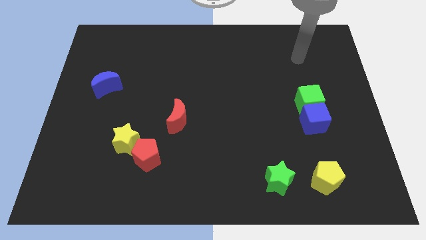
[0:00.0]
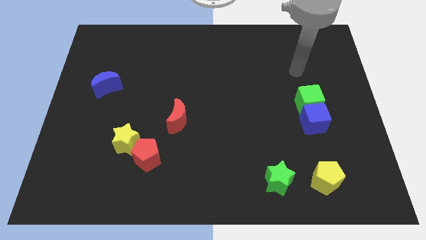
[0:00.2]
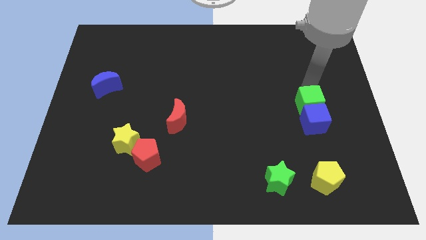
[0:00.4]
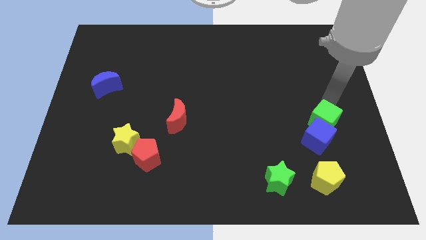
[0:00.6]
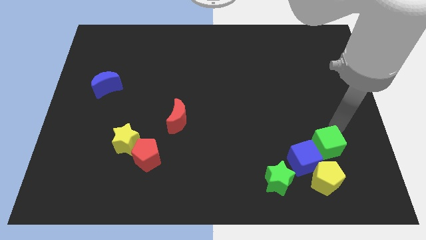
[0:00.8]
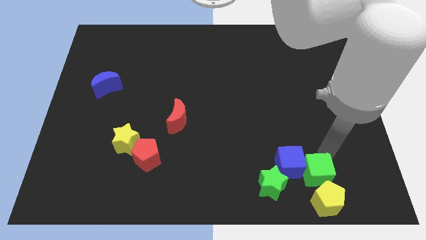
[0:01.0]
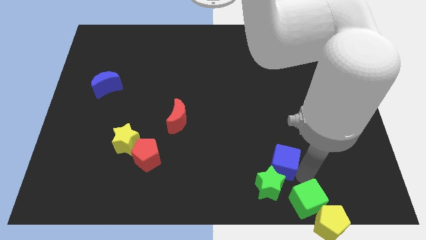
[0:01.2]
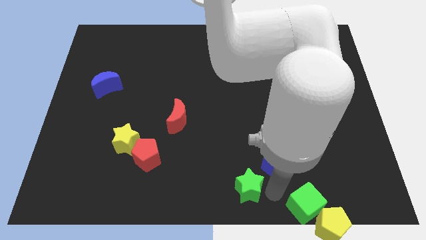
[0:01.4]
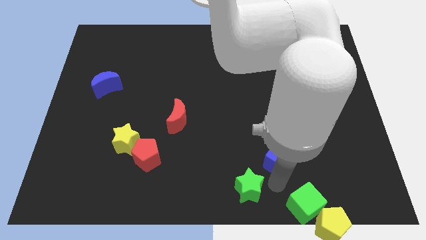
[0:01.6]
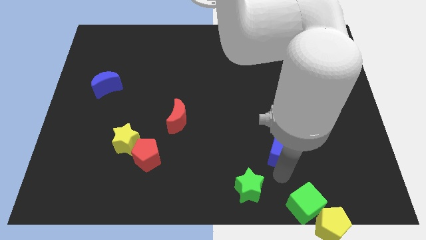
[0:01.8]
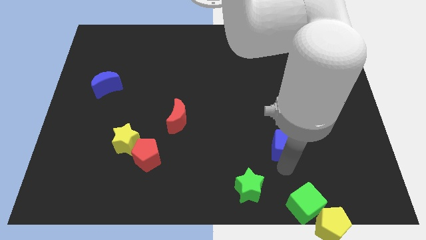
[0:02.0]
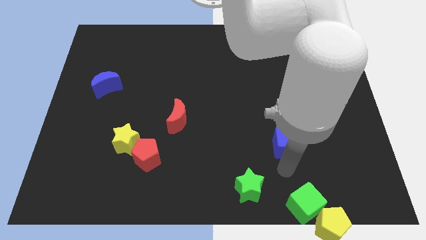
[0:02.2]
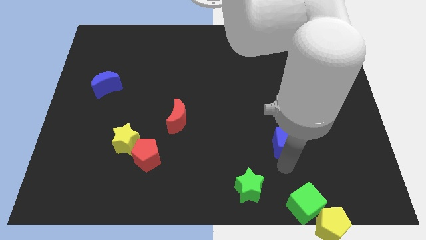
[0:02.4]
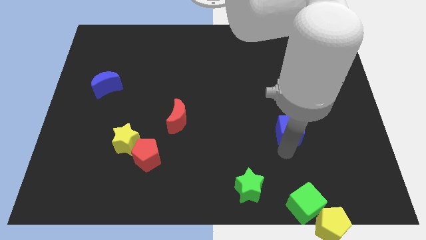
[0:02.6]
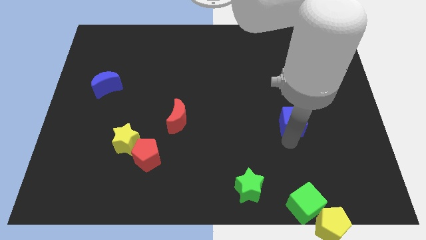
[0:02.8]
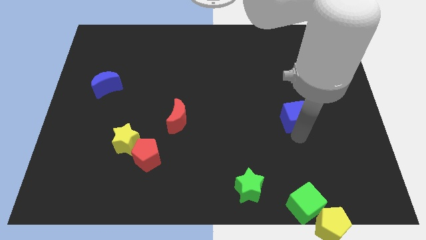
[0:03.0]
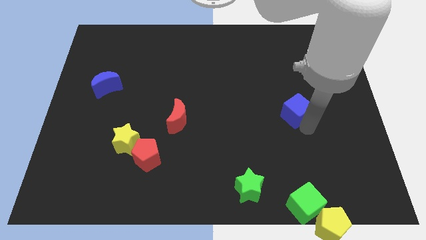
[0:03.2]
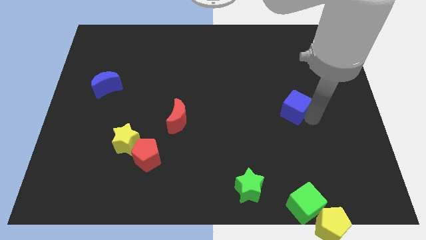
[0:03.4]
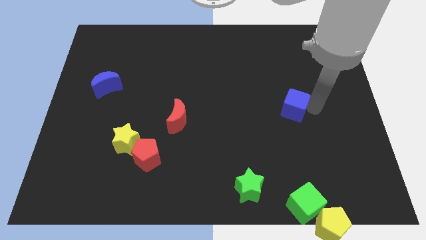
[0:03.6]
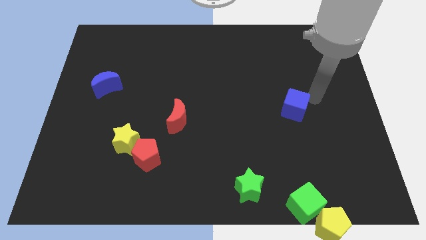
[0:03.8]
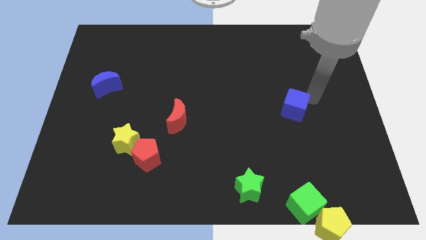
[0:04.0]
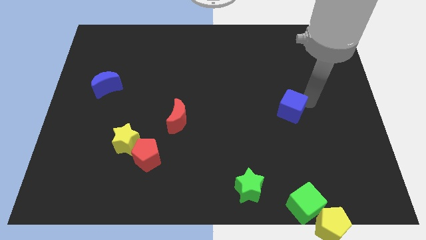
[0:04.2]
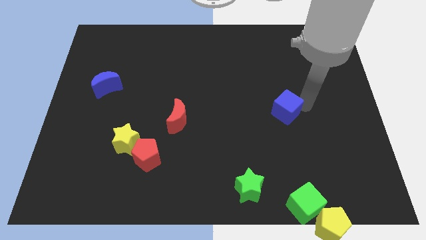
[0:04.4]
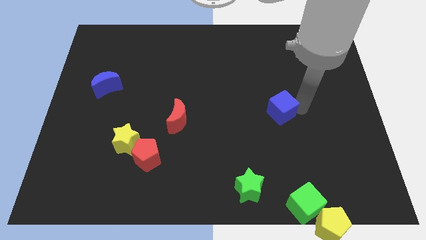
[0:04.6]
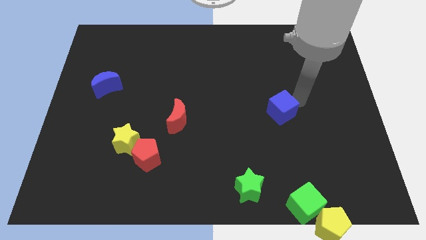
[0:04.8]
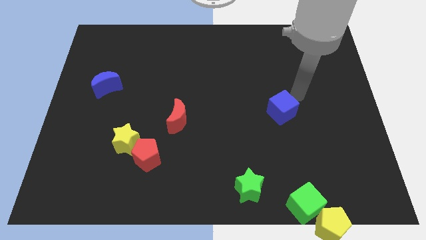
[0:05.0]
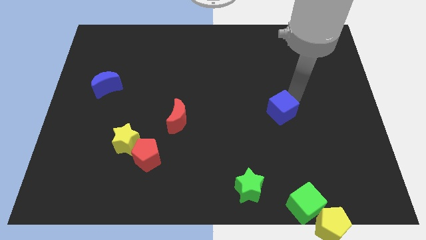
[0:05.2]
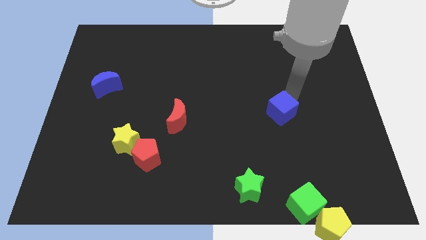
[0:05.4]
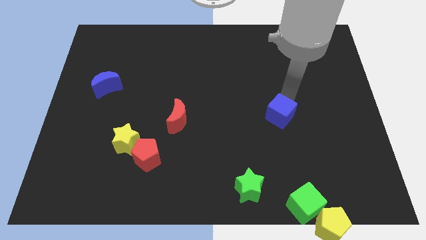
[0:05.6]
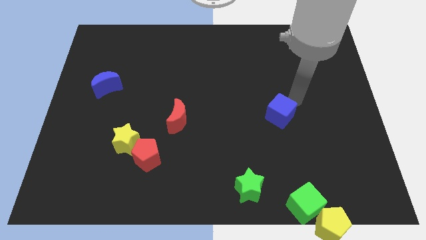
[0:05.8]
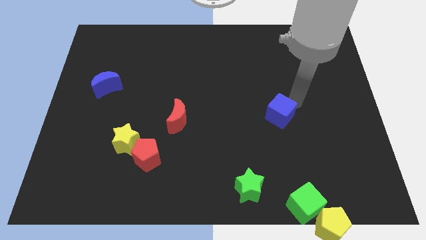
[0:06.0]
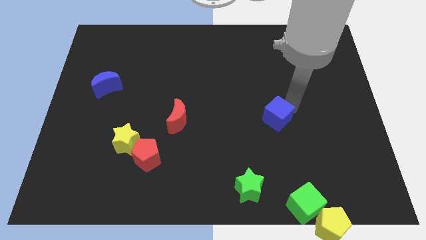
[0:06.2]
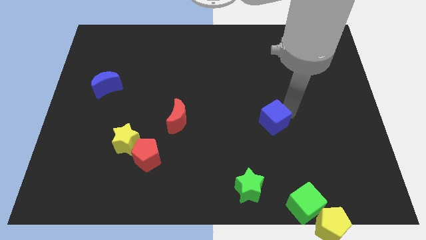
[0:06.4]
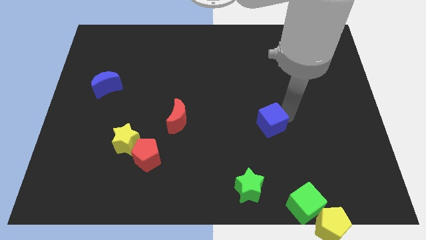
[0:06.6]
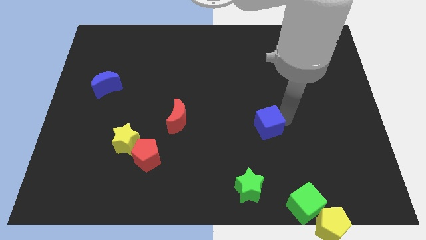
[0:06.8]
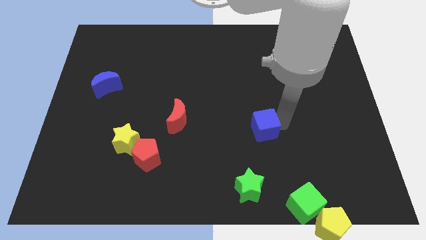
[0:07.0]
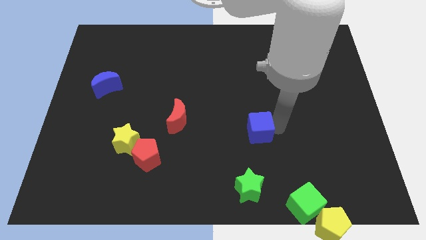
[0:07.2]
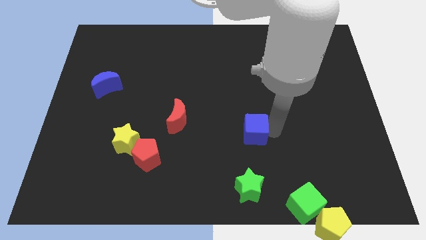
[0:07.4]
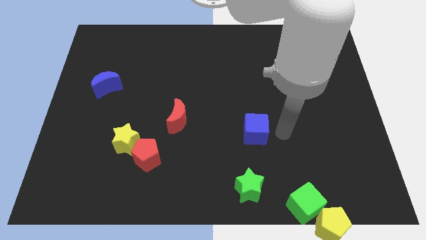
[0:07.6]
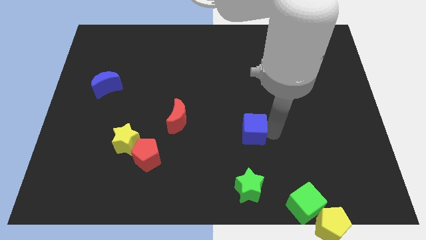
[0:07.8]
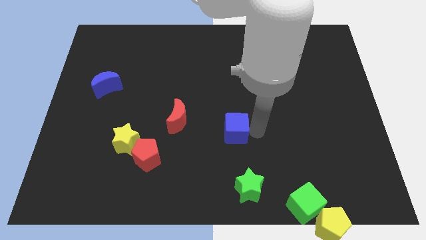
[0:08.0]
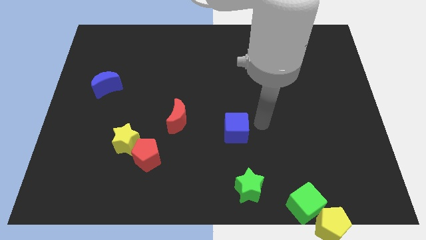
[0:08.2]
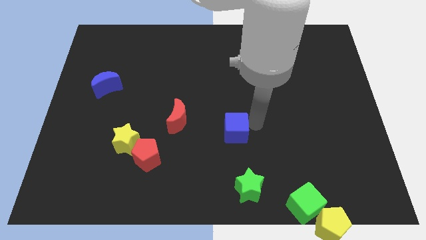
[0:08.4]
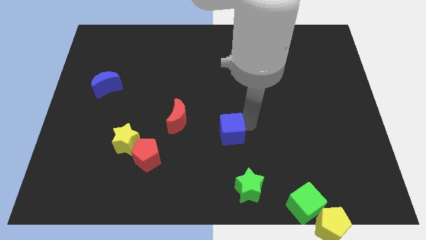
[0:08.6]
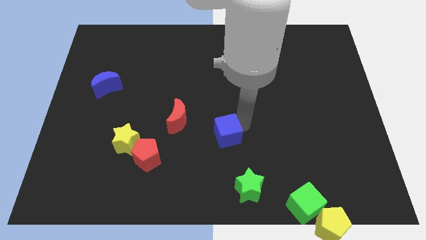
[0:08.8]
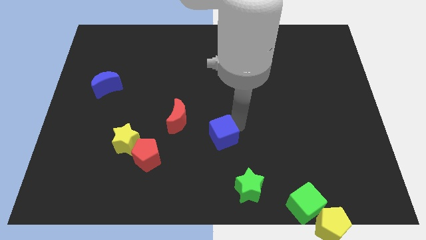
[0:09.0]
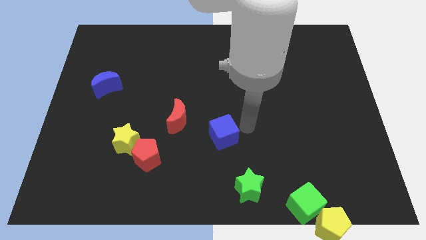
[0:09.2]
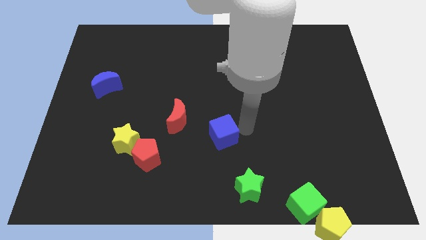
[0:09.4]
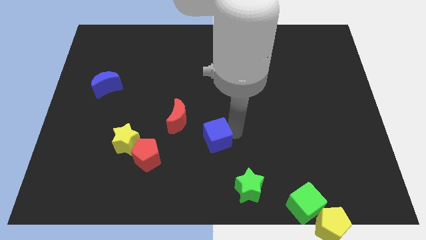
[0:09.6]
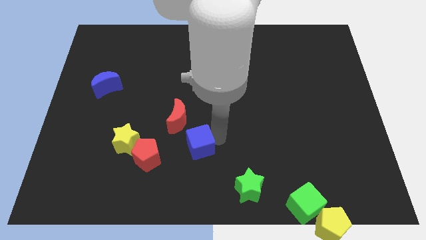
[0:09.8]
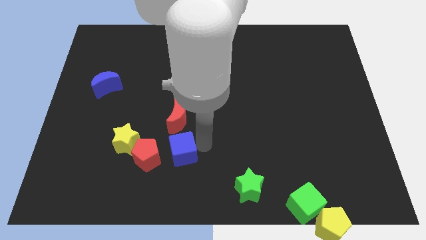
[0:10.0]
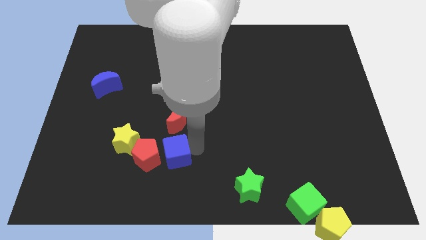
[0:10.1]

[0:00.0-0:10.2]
push the blue cube next to the red pentagon

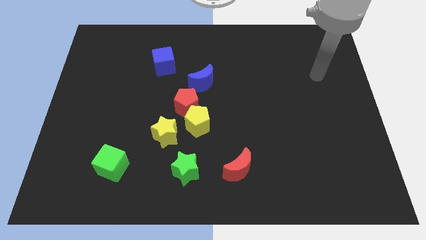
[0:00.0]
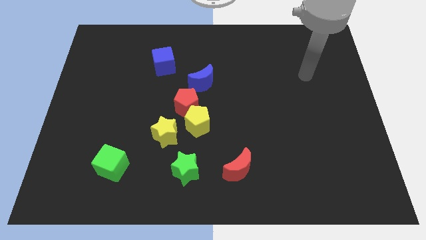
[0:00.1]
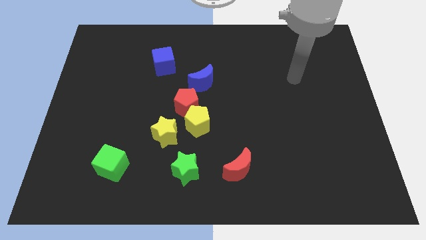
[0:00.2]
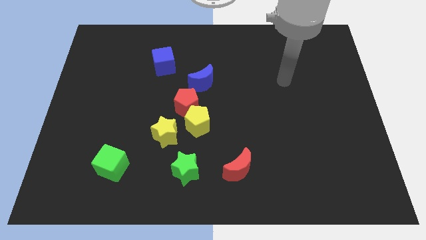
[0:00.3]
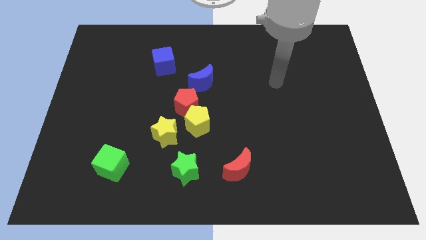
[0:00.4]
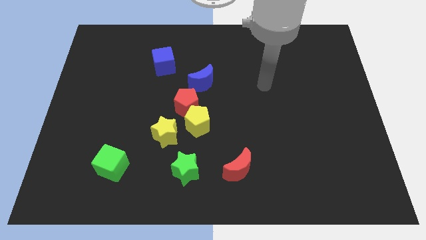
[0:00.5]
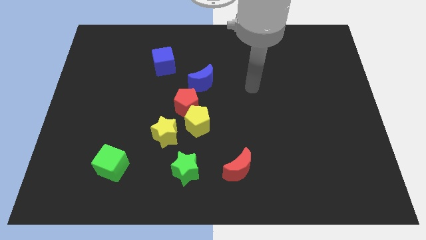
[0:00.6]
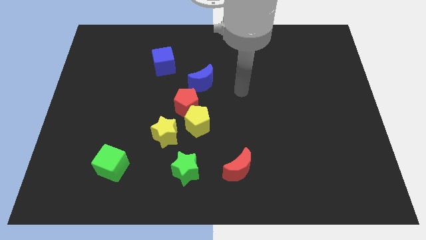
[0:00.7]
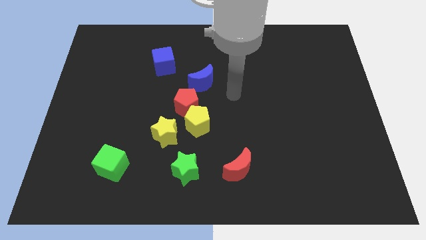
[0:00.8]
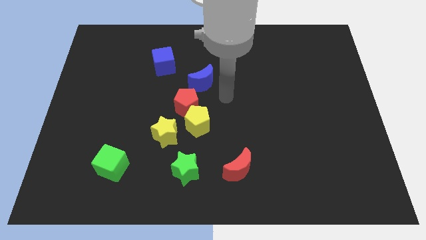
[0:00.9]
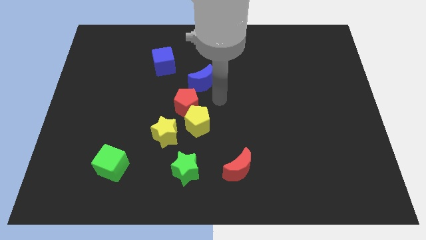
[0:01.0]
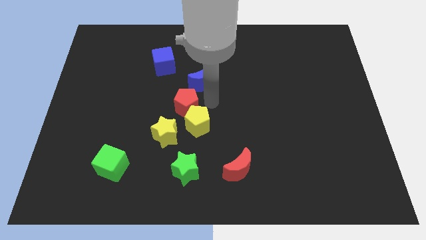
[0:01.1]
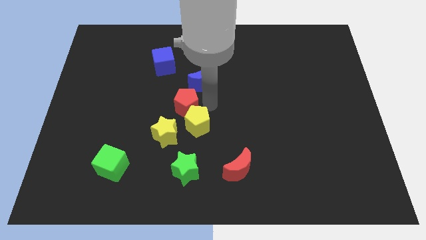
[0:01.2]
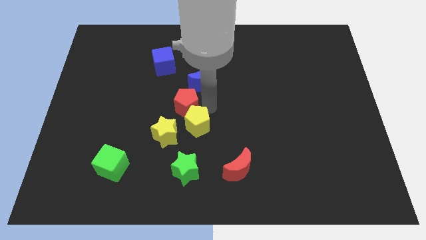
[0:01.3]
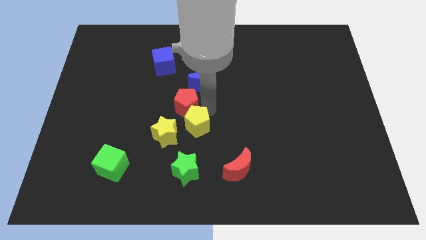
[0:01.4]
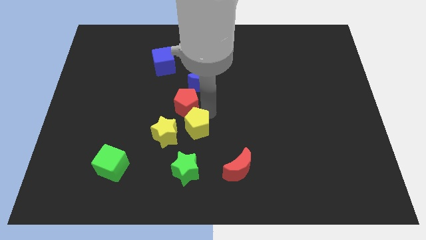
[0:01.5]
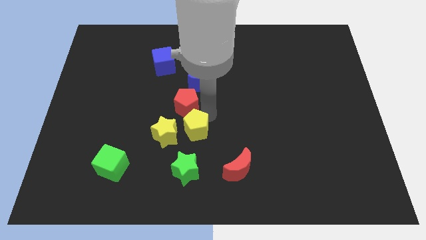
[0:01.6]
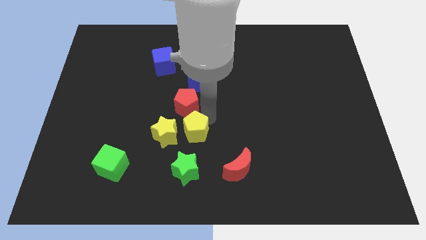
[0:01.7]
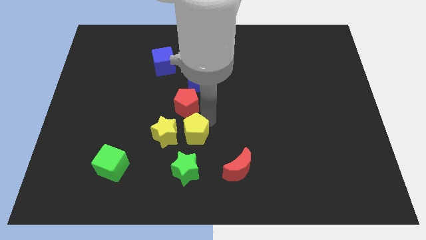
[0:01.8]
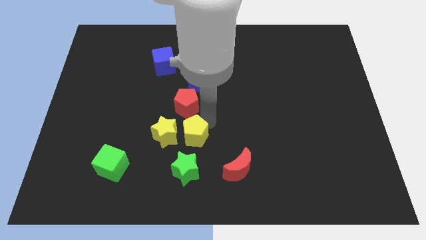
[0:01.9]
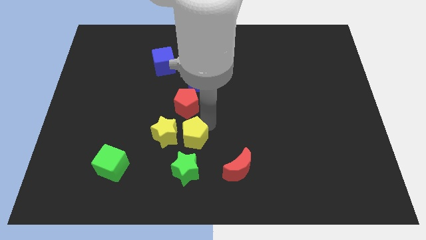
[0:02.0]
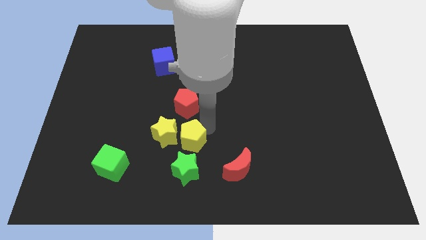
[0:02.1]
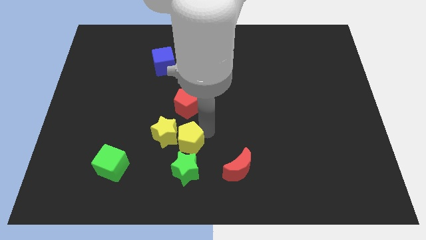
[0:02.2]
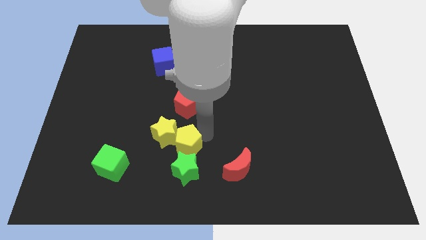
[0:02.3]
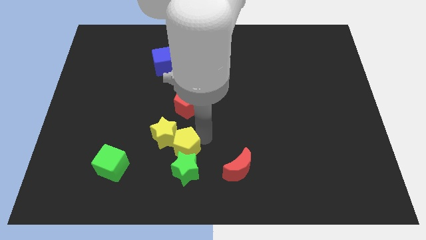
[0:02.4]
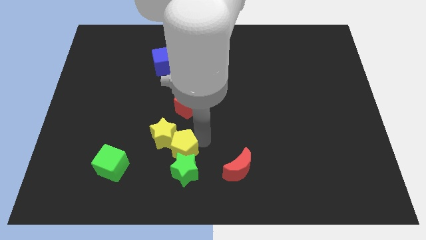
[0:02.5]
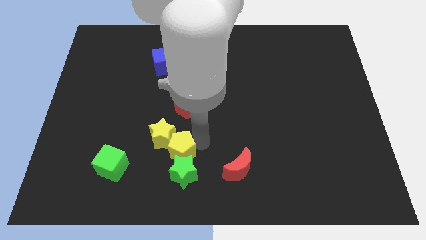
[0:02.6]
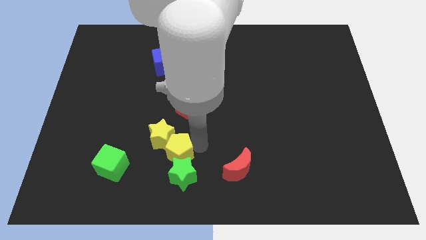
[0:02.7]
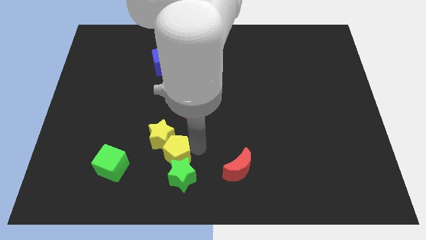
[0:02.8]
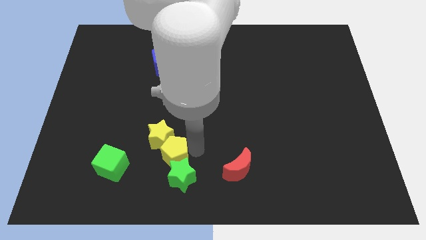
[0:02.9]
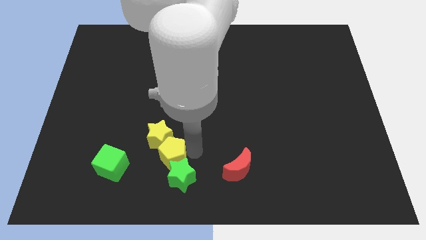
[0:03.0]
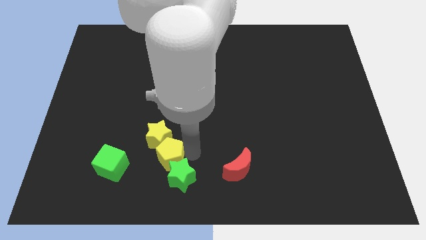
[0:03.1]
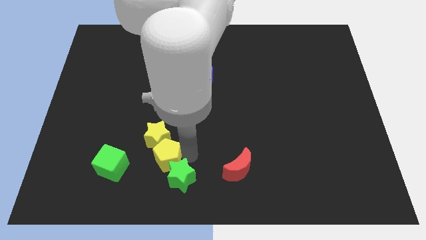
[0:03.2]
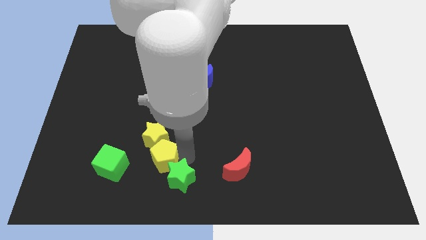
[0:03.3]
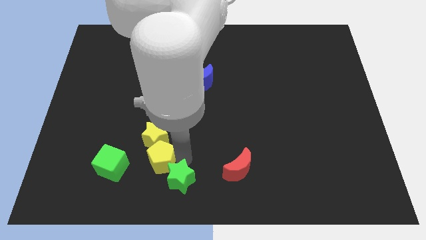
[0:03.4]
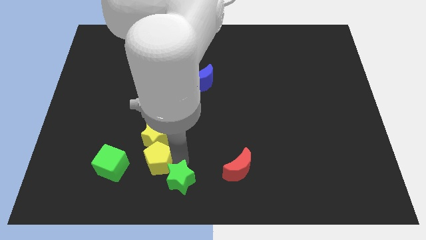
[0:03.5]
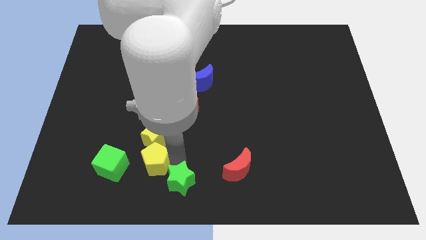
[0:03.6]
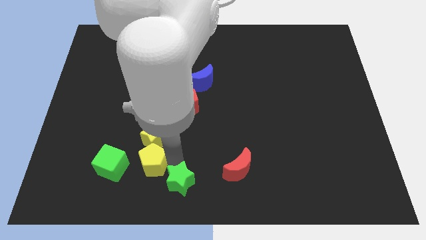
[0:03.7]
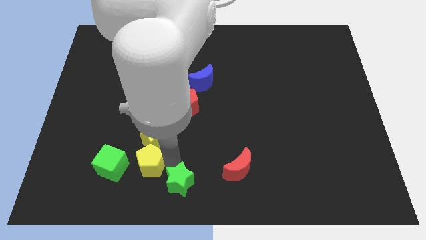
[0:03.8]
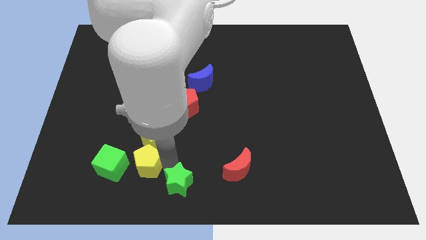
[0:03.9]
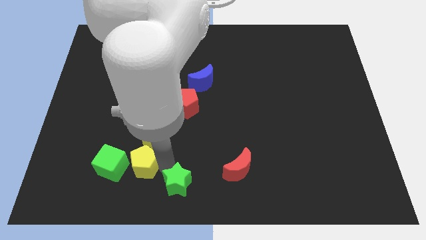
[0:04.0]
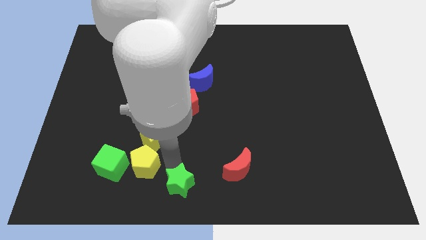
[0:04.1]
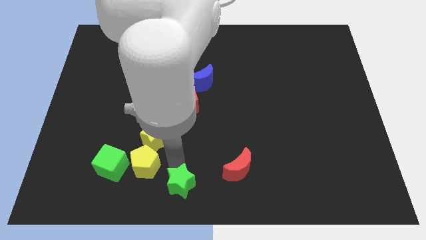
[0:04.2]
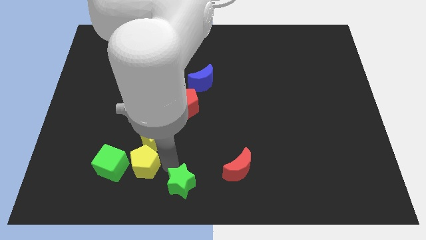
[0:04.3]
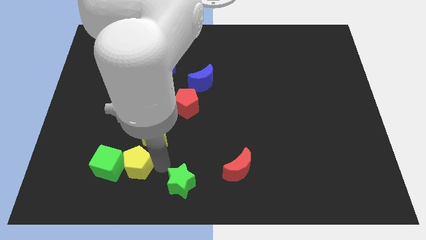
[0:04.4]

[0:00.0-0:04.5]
push the yellow pentagon towards the green cube
